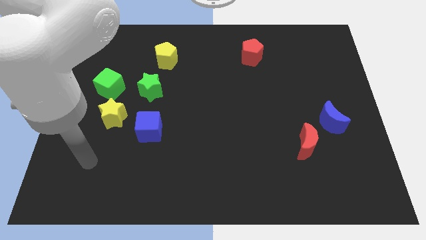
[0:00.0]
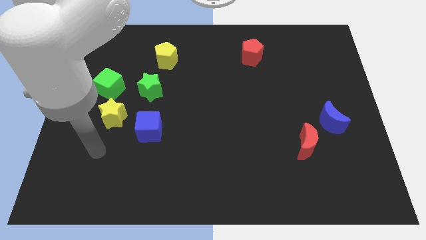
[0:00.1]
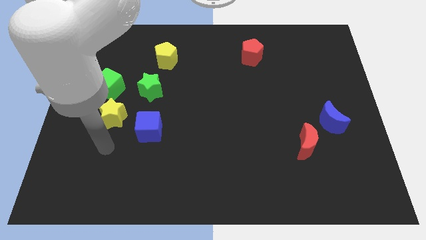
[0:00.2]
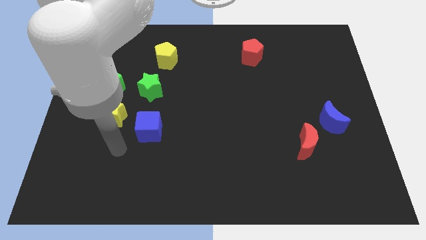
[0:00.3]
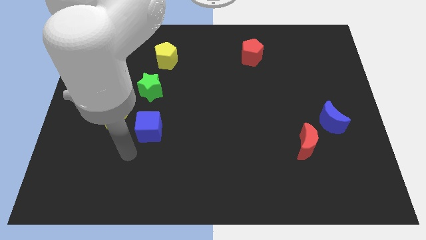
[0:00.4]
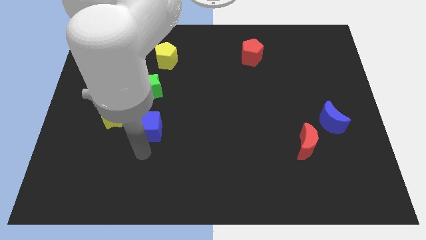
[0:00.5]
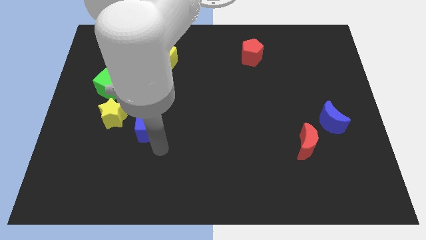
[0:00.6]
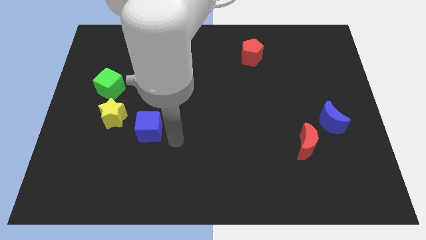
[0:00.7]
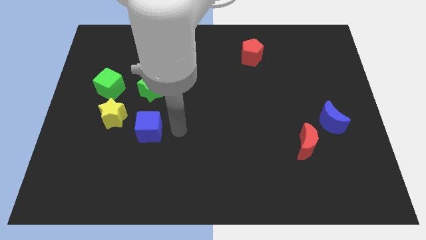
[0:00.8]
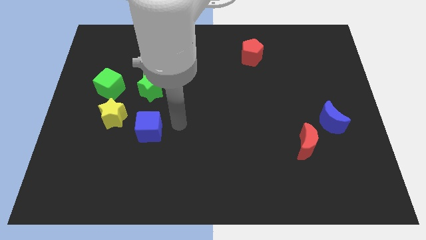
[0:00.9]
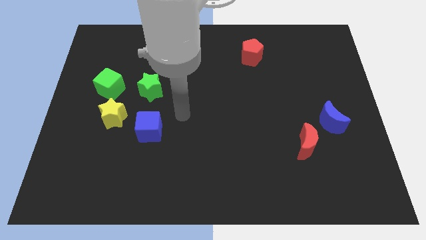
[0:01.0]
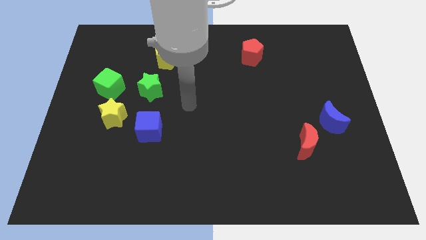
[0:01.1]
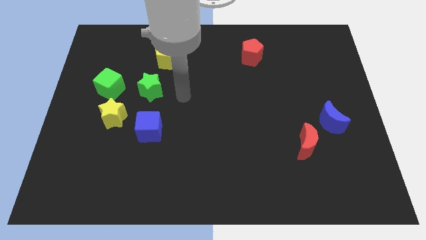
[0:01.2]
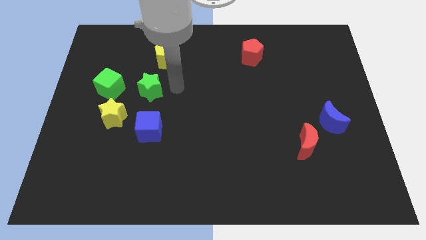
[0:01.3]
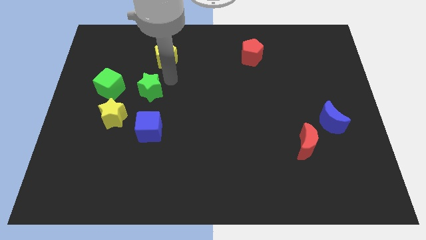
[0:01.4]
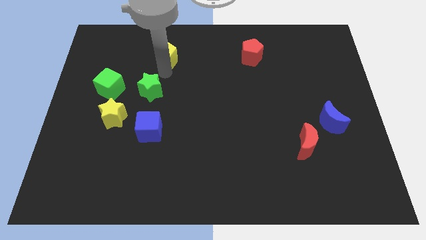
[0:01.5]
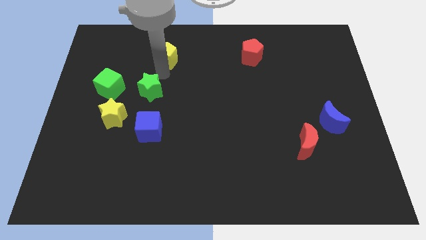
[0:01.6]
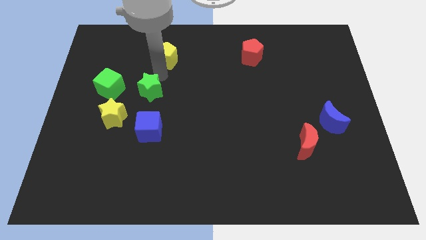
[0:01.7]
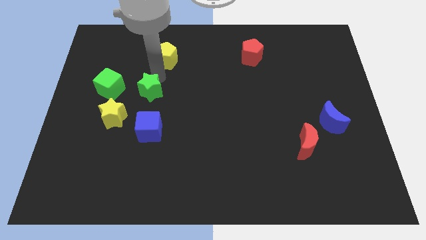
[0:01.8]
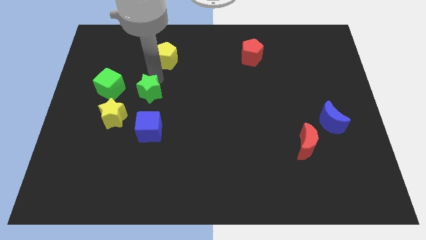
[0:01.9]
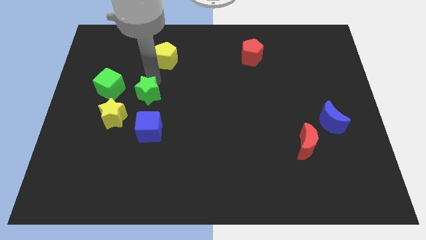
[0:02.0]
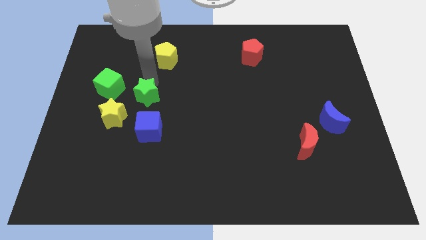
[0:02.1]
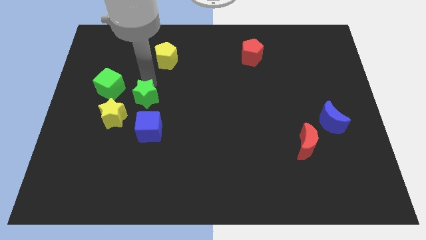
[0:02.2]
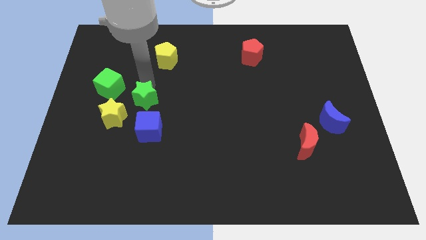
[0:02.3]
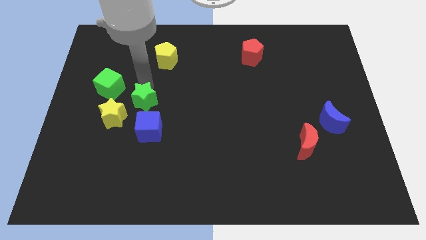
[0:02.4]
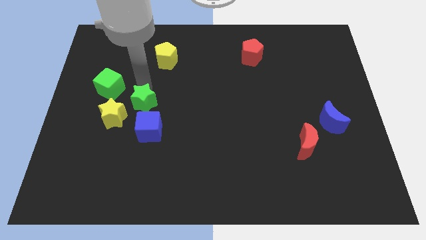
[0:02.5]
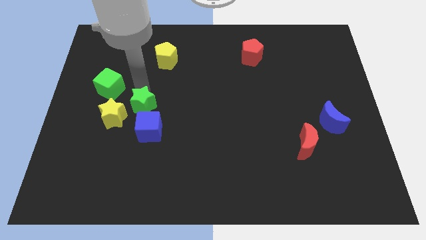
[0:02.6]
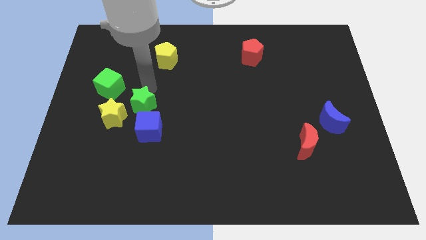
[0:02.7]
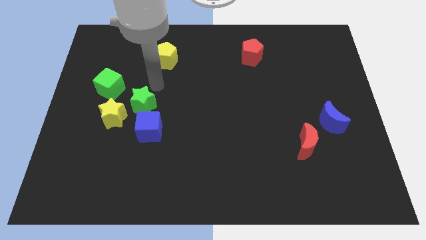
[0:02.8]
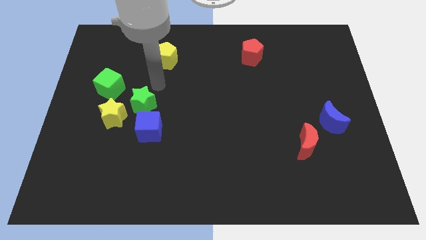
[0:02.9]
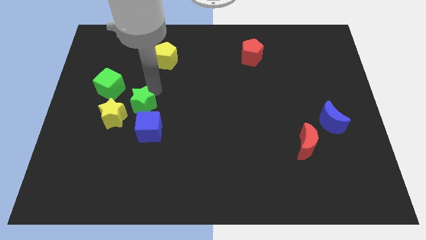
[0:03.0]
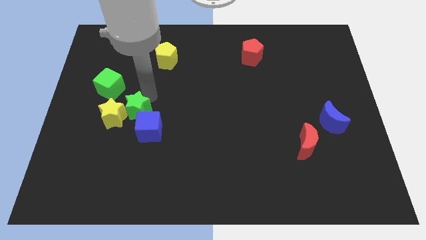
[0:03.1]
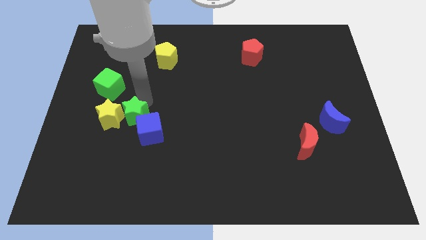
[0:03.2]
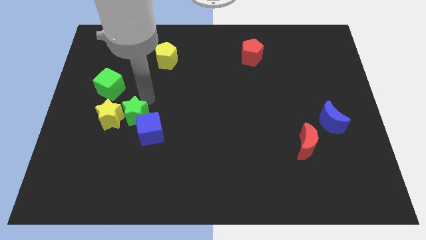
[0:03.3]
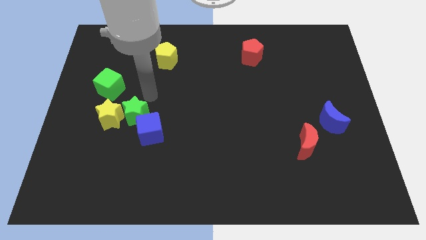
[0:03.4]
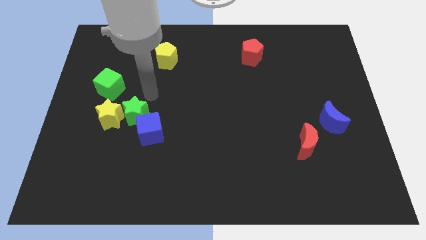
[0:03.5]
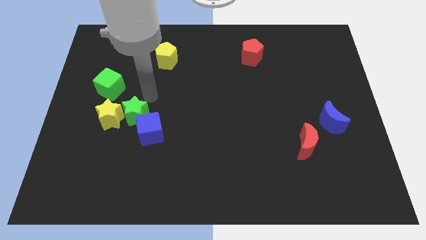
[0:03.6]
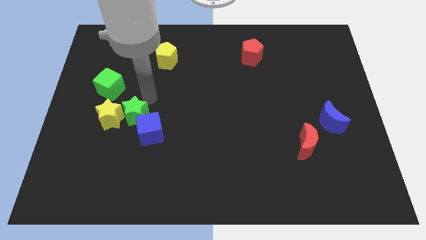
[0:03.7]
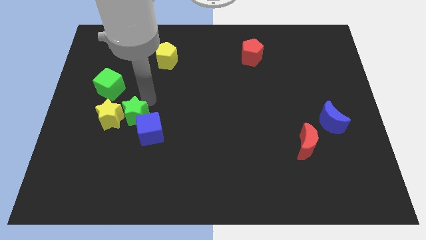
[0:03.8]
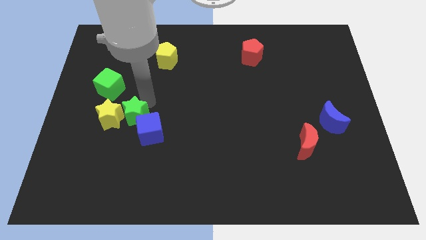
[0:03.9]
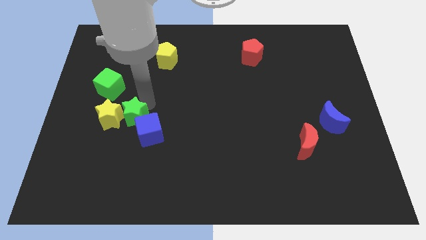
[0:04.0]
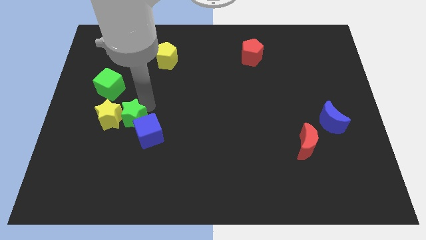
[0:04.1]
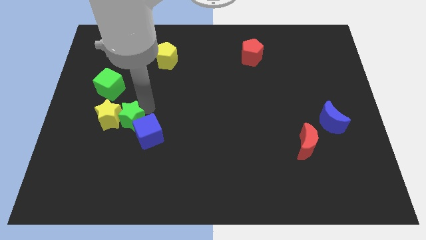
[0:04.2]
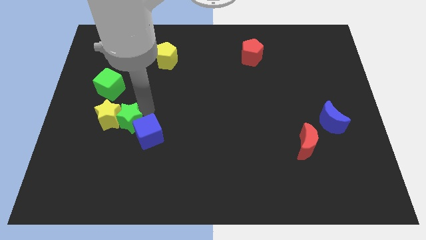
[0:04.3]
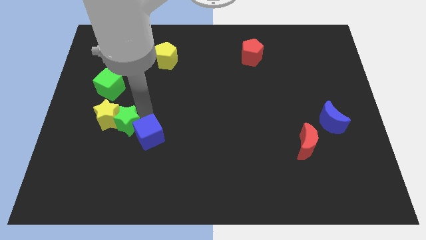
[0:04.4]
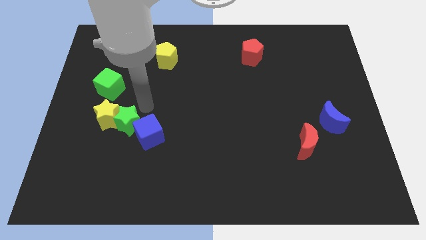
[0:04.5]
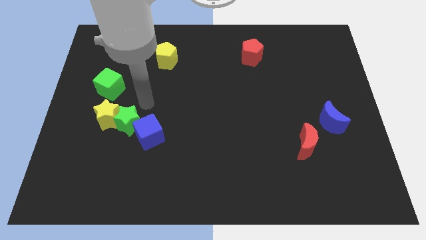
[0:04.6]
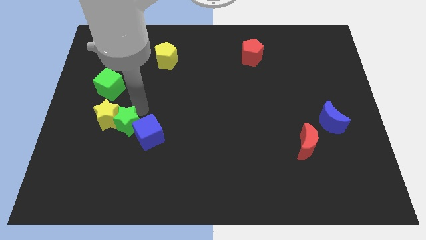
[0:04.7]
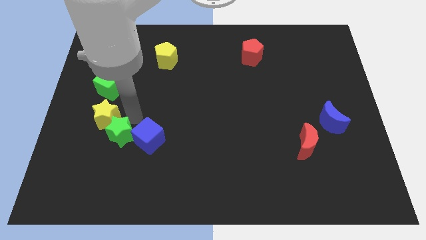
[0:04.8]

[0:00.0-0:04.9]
move the green star to the bottom side of the yellow star

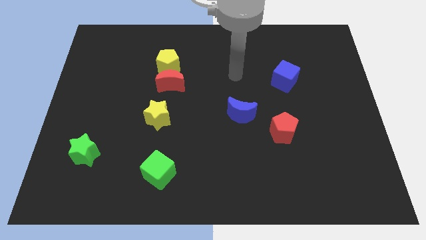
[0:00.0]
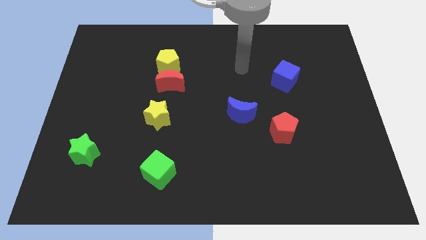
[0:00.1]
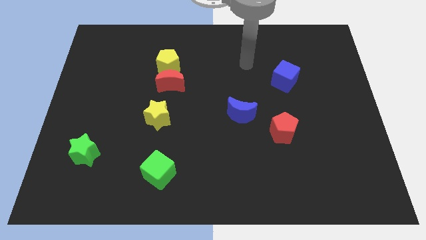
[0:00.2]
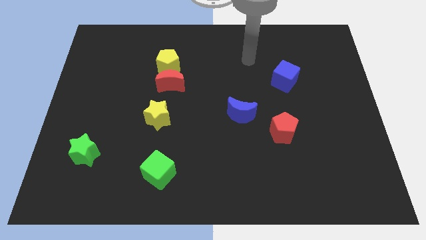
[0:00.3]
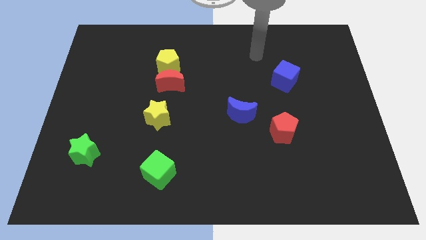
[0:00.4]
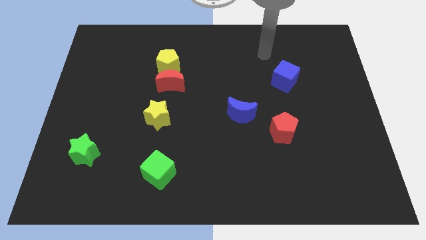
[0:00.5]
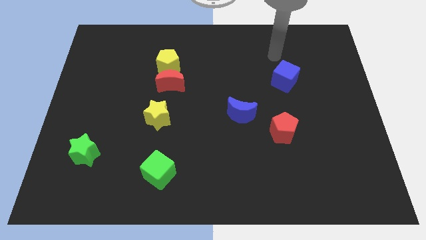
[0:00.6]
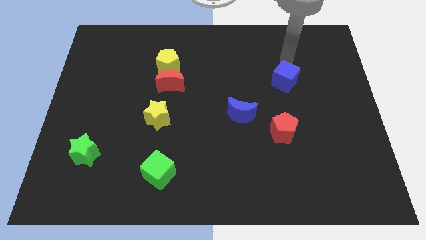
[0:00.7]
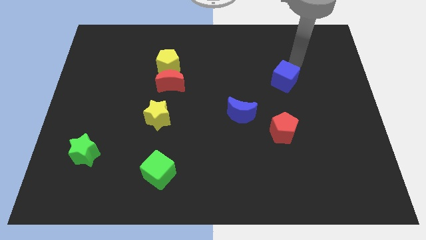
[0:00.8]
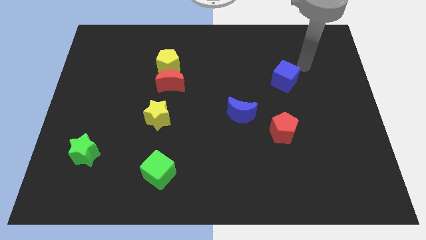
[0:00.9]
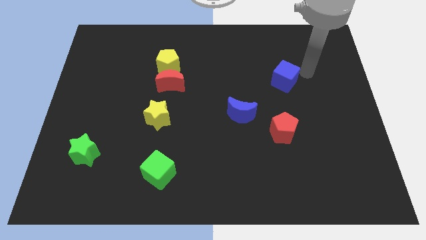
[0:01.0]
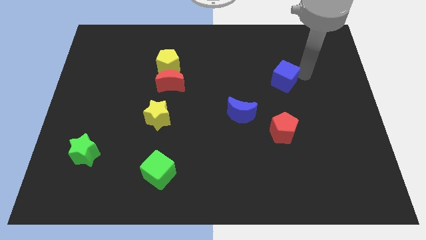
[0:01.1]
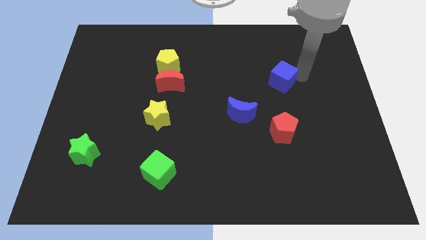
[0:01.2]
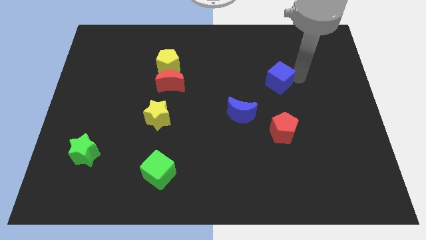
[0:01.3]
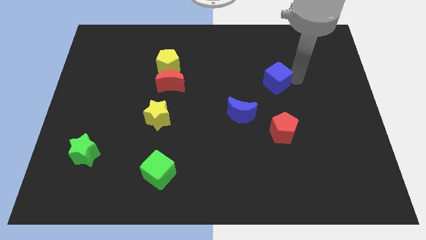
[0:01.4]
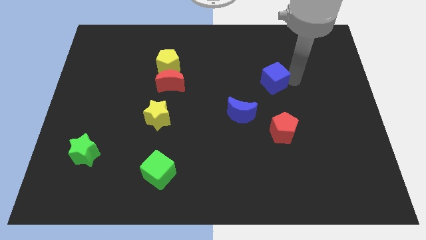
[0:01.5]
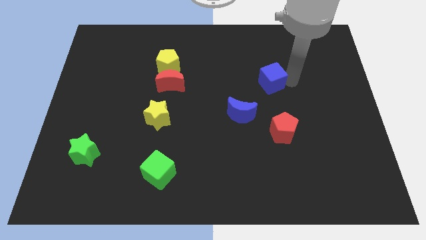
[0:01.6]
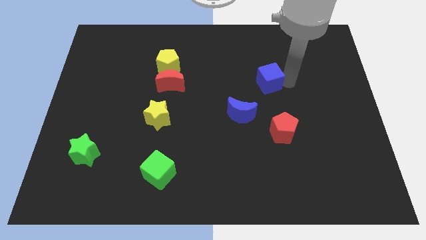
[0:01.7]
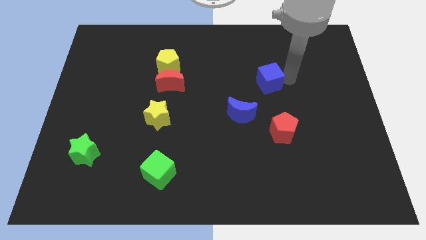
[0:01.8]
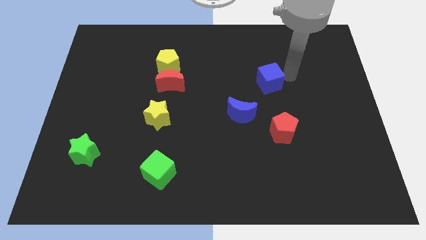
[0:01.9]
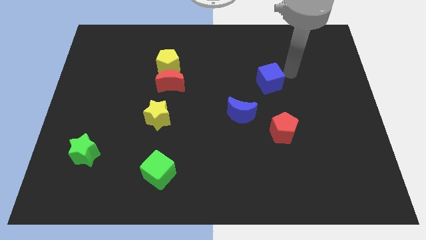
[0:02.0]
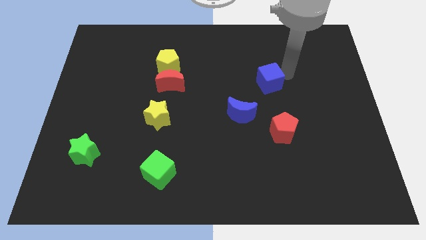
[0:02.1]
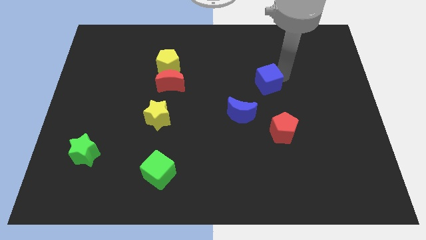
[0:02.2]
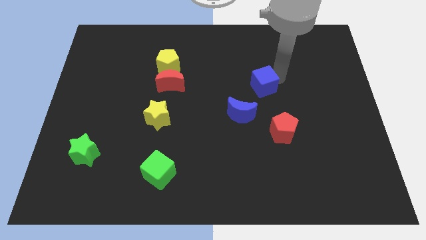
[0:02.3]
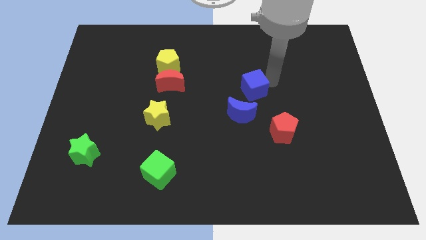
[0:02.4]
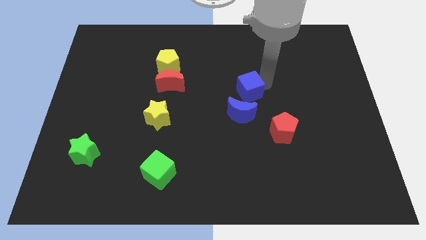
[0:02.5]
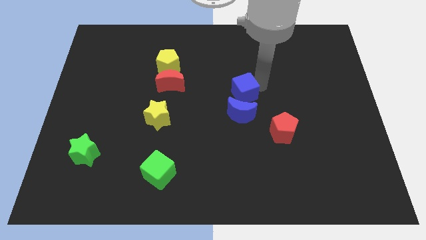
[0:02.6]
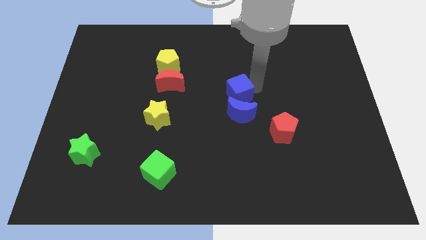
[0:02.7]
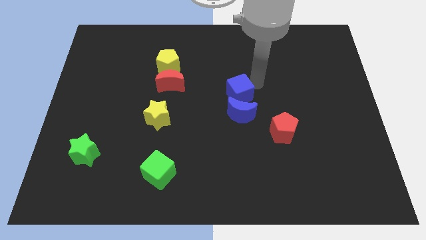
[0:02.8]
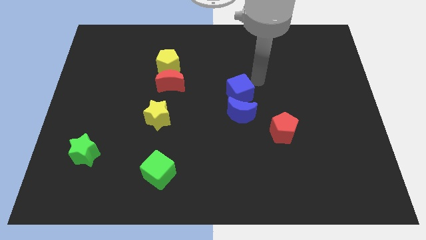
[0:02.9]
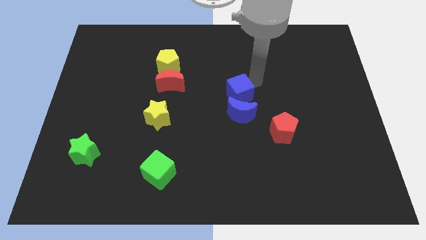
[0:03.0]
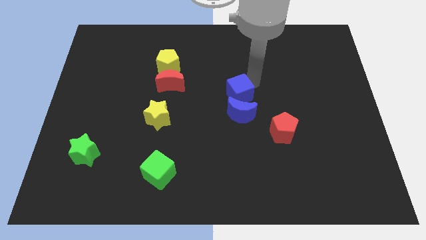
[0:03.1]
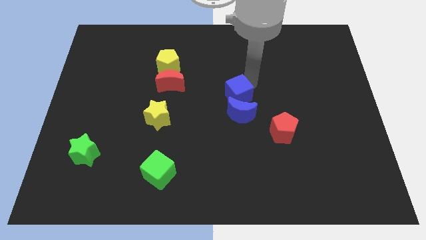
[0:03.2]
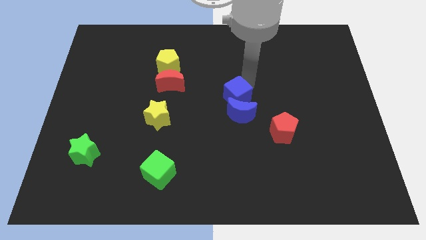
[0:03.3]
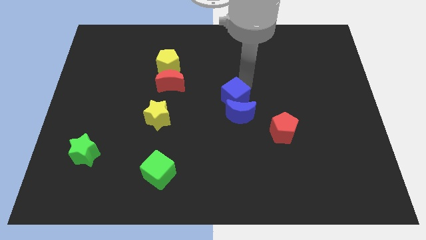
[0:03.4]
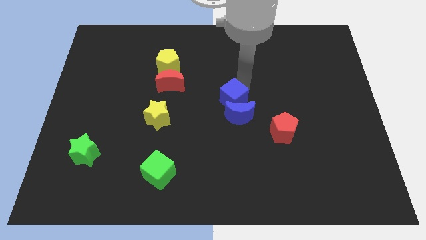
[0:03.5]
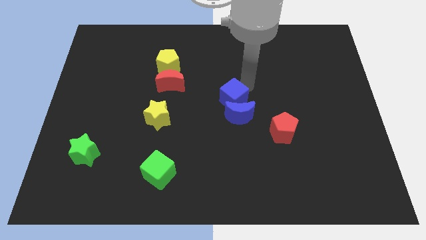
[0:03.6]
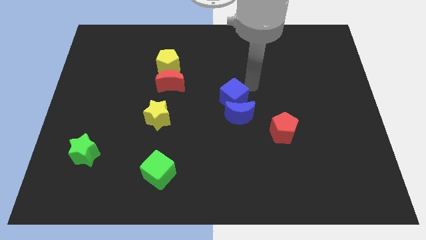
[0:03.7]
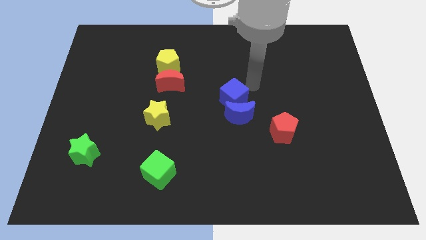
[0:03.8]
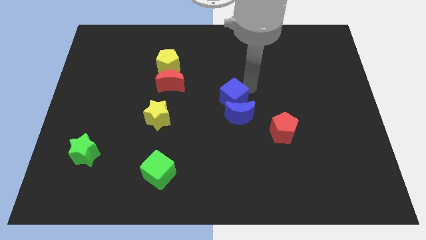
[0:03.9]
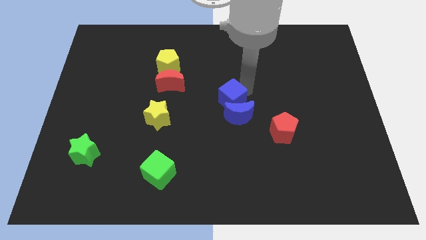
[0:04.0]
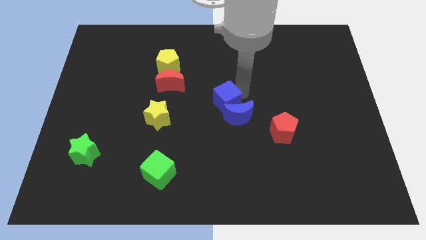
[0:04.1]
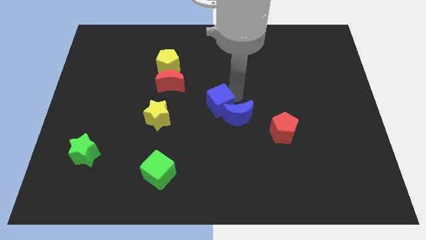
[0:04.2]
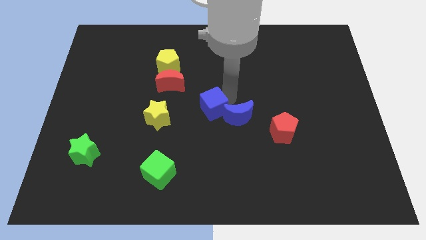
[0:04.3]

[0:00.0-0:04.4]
slide the blue cube to the right side of the yellow star
